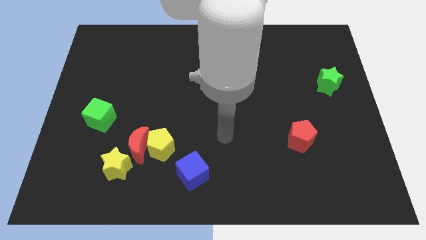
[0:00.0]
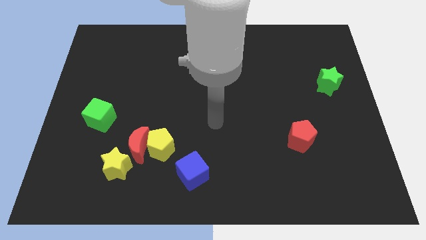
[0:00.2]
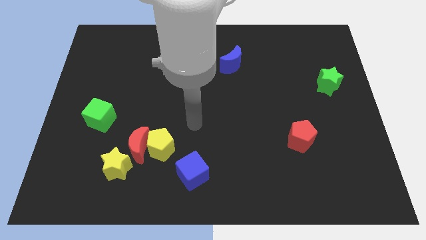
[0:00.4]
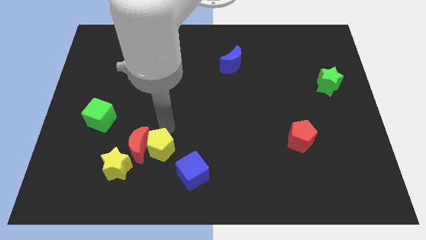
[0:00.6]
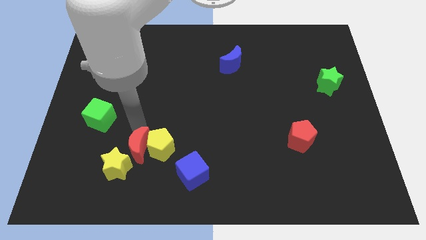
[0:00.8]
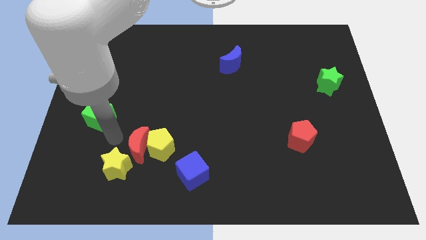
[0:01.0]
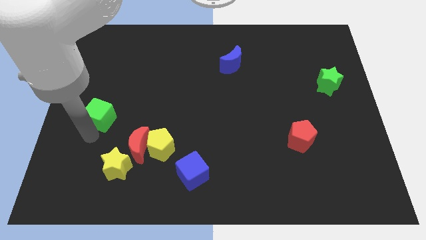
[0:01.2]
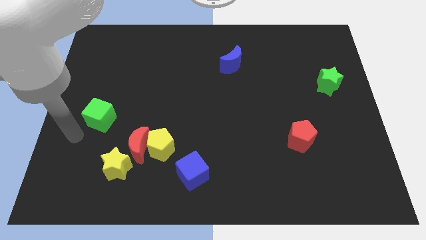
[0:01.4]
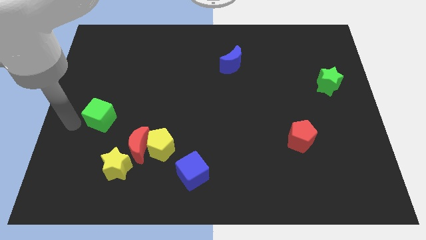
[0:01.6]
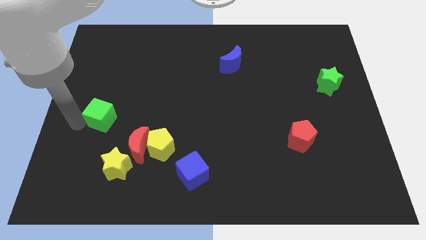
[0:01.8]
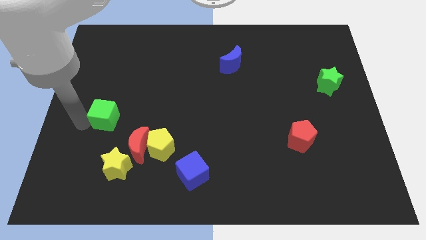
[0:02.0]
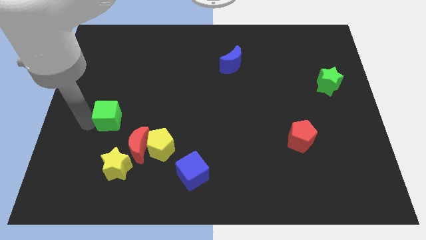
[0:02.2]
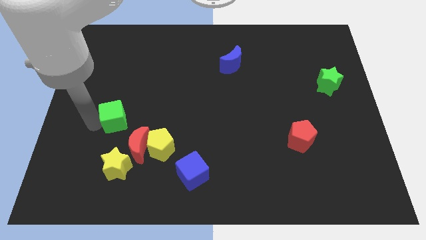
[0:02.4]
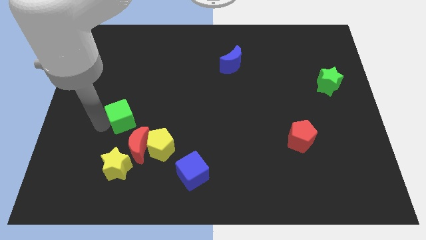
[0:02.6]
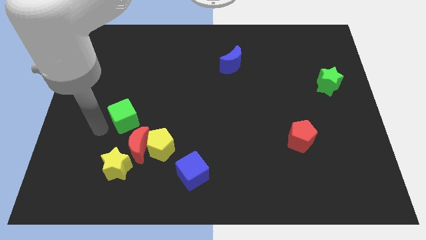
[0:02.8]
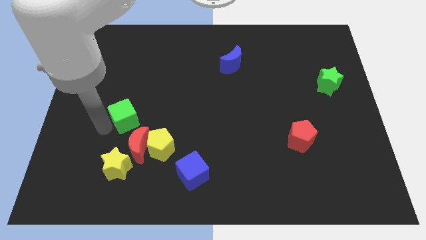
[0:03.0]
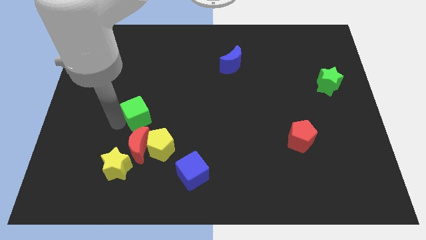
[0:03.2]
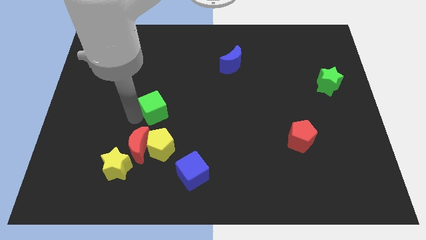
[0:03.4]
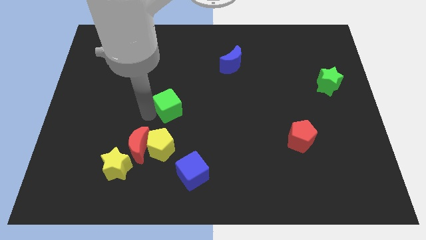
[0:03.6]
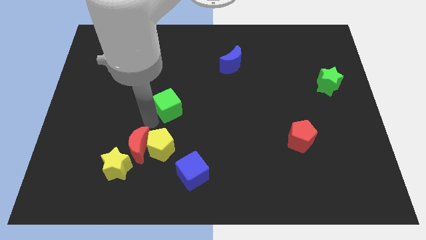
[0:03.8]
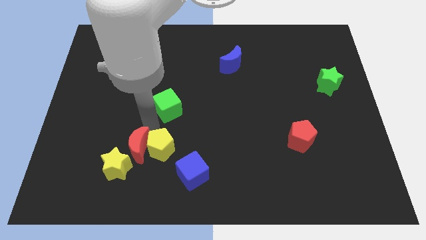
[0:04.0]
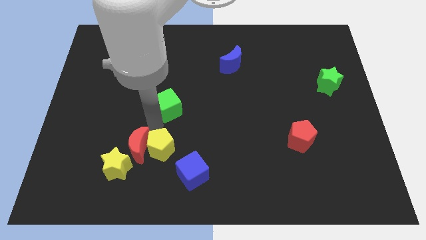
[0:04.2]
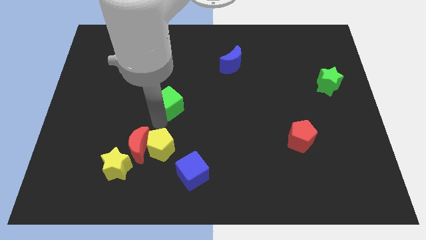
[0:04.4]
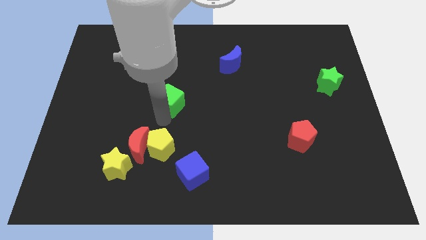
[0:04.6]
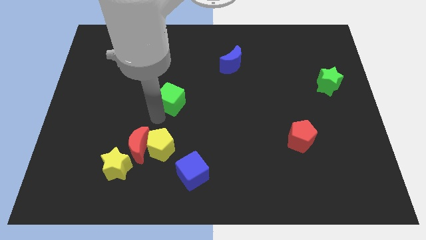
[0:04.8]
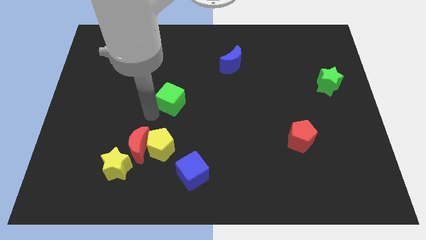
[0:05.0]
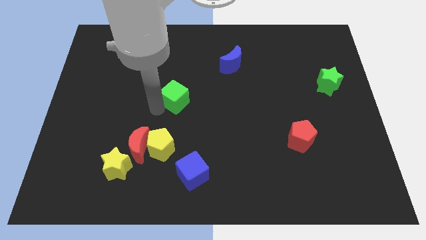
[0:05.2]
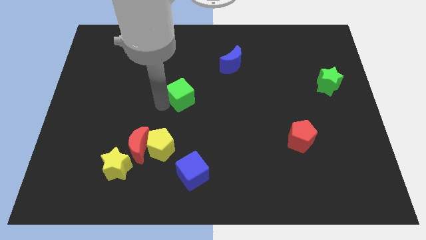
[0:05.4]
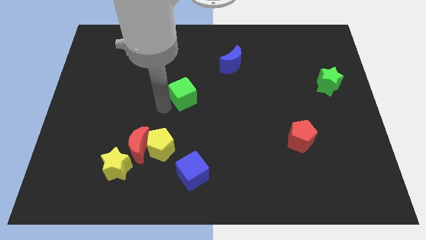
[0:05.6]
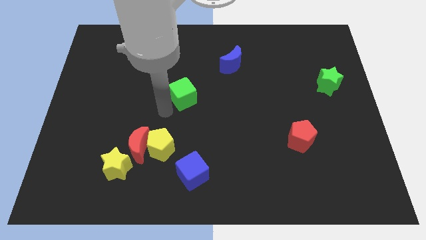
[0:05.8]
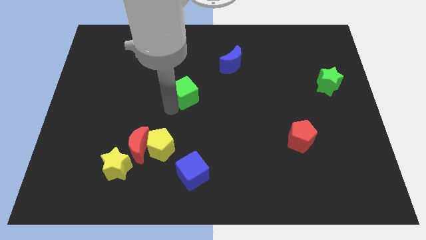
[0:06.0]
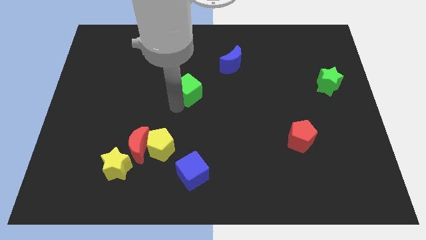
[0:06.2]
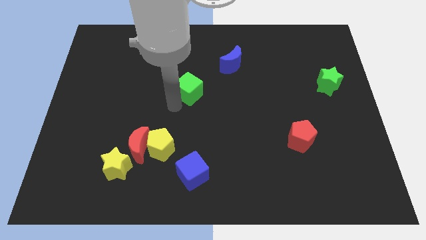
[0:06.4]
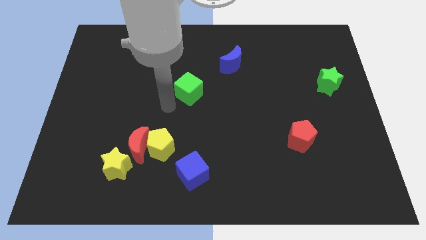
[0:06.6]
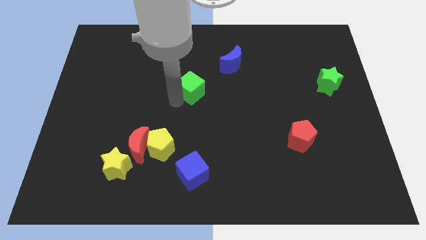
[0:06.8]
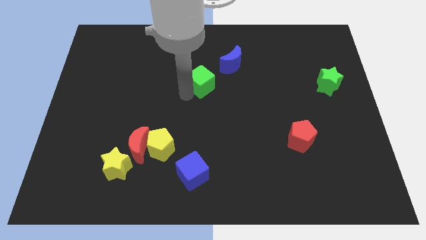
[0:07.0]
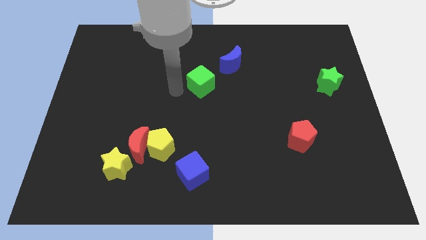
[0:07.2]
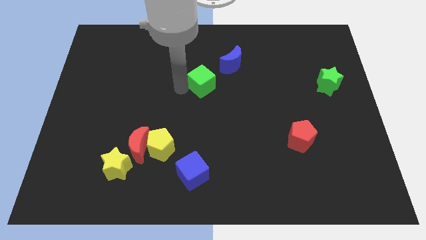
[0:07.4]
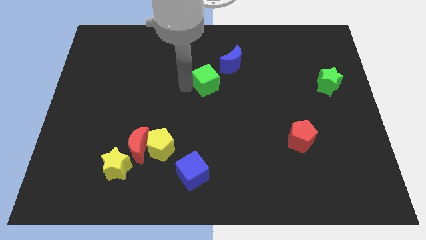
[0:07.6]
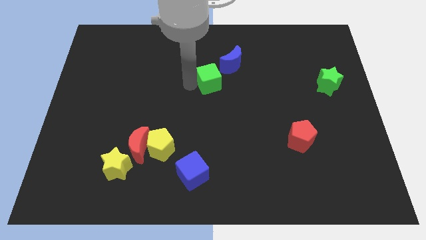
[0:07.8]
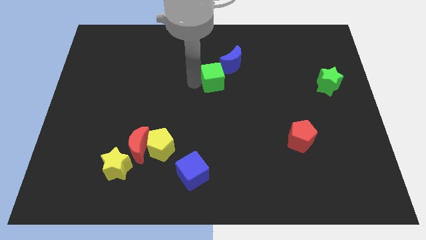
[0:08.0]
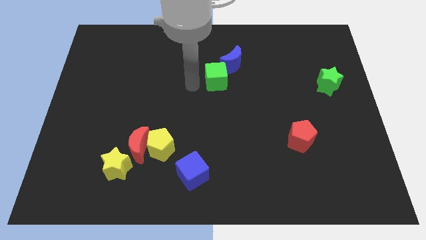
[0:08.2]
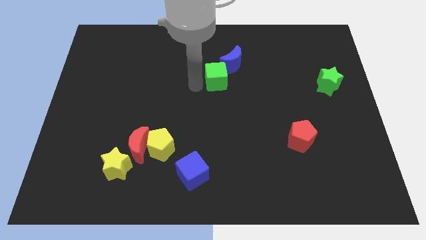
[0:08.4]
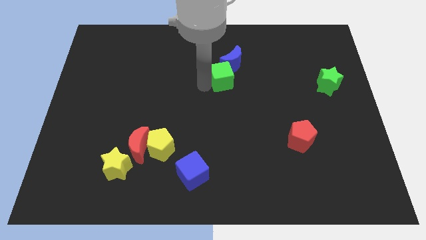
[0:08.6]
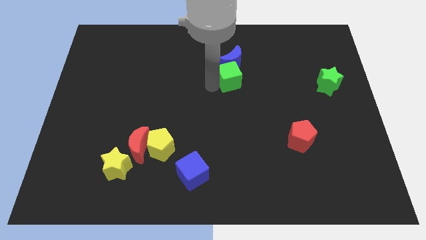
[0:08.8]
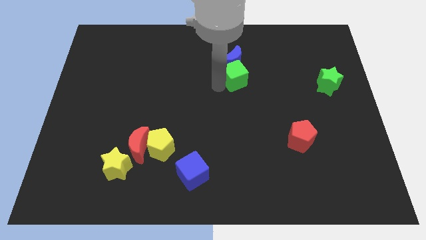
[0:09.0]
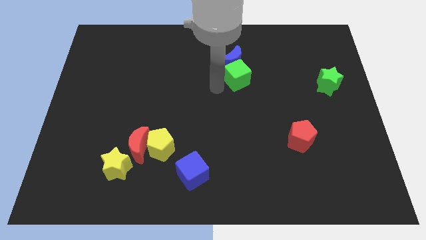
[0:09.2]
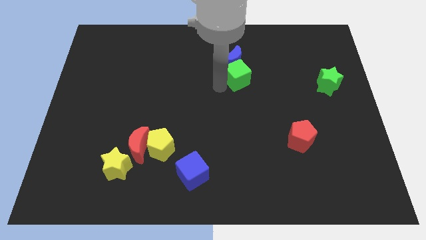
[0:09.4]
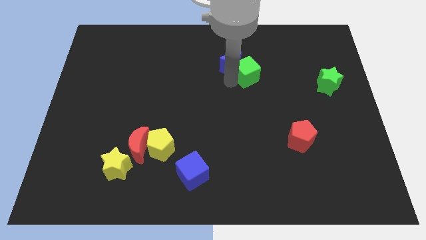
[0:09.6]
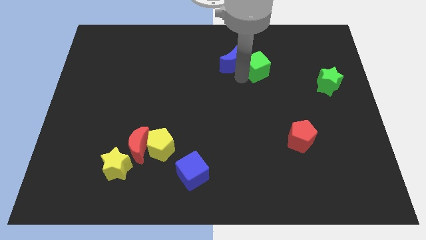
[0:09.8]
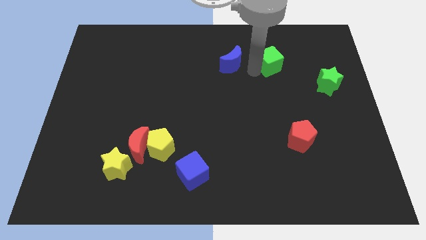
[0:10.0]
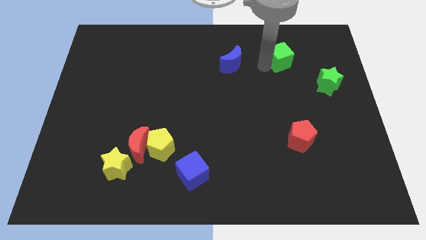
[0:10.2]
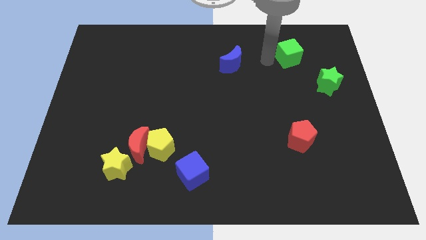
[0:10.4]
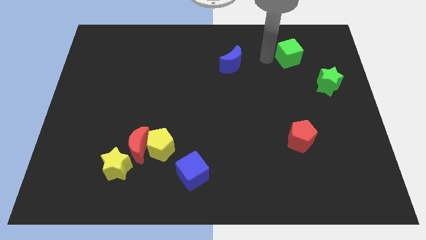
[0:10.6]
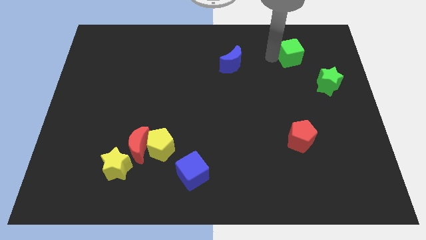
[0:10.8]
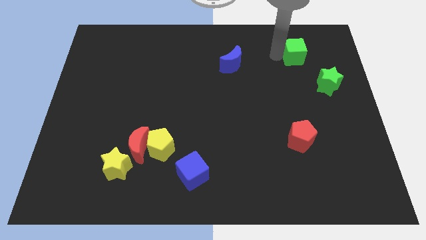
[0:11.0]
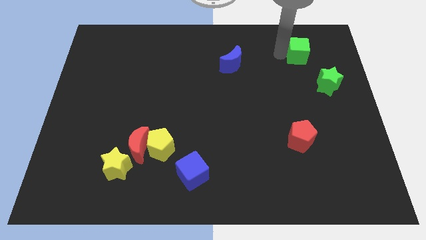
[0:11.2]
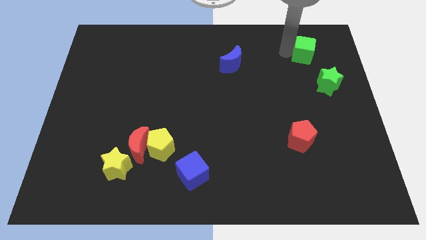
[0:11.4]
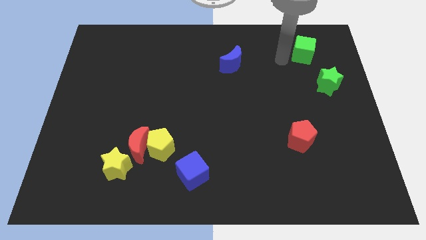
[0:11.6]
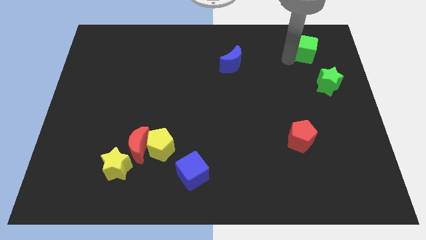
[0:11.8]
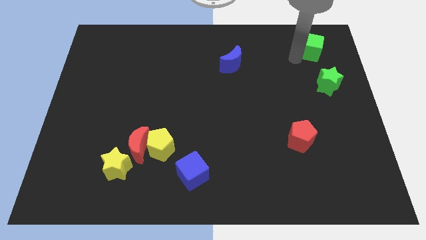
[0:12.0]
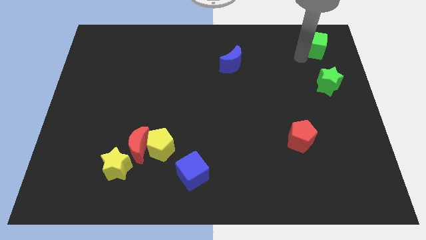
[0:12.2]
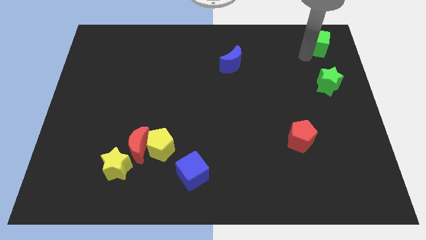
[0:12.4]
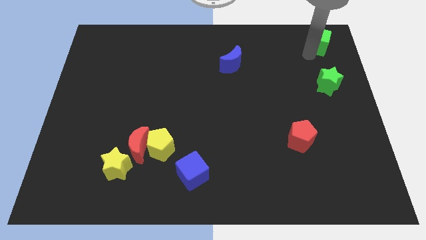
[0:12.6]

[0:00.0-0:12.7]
move the green cube to the upper right corner
